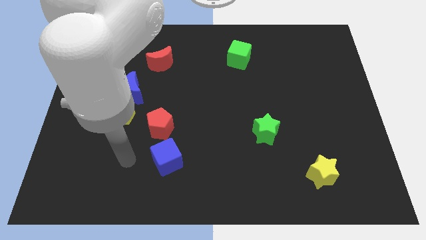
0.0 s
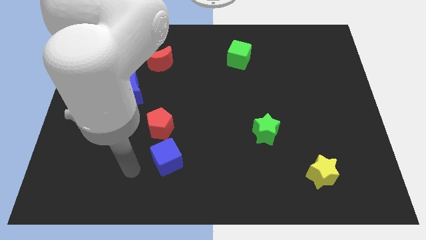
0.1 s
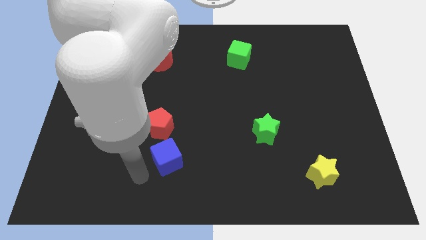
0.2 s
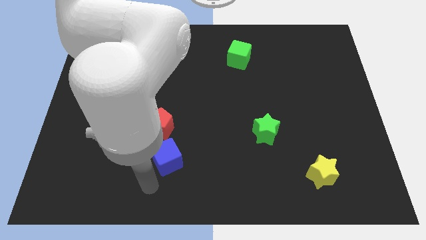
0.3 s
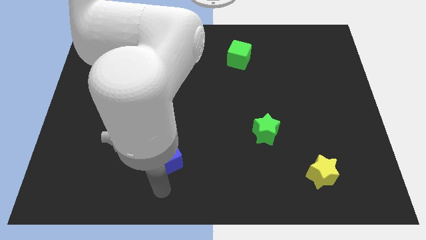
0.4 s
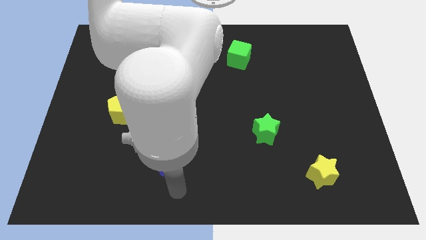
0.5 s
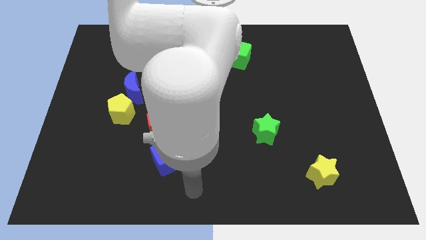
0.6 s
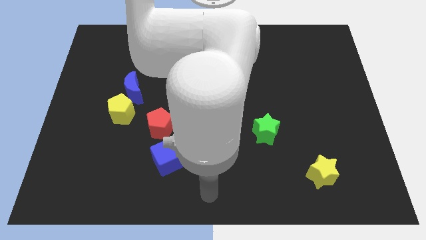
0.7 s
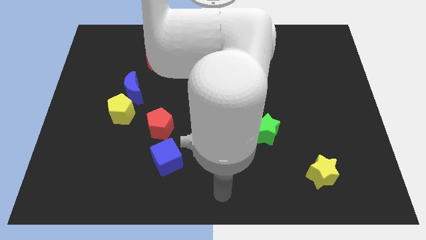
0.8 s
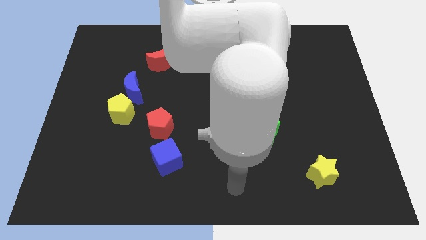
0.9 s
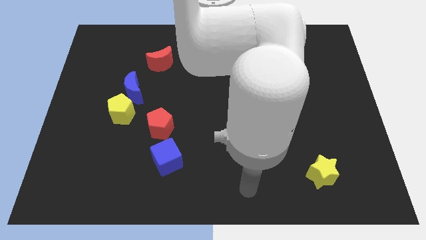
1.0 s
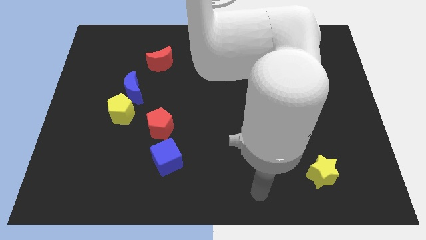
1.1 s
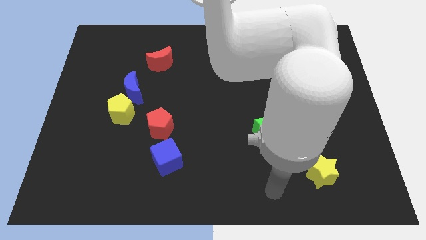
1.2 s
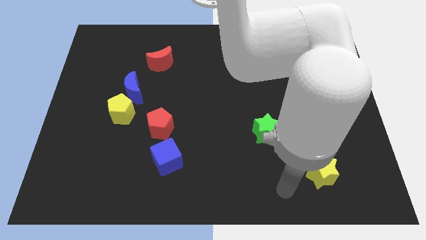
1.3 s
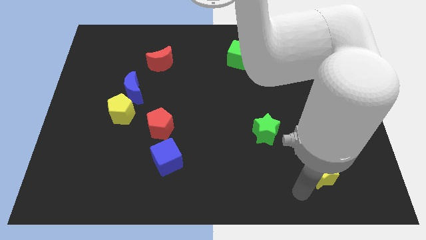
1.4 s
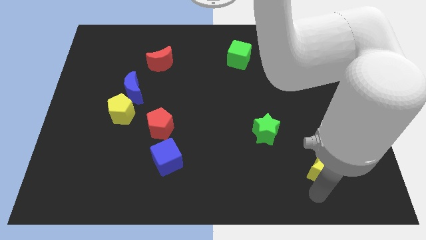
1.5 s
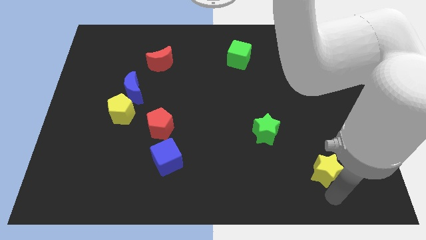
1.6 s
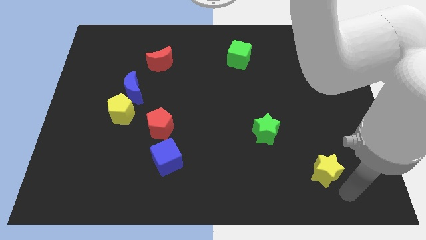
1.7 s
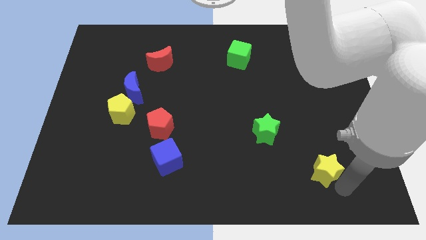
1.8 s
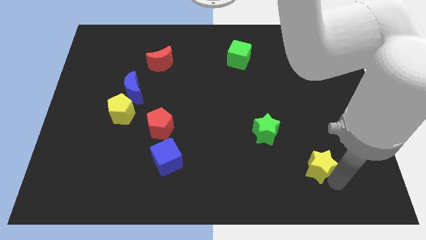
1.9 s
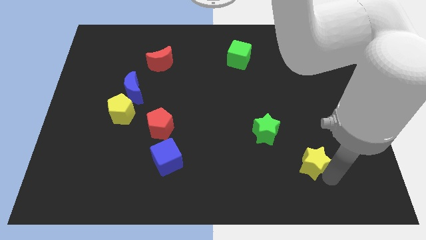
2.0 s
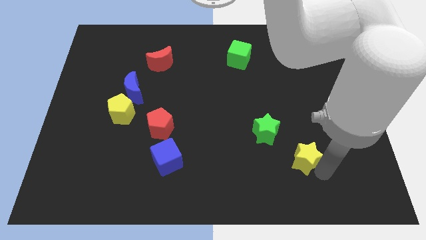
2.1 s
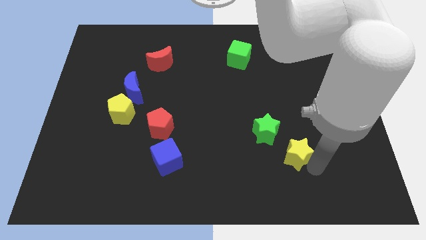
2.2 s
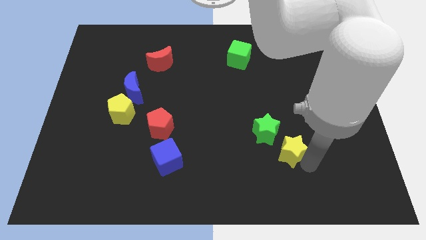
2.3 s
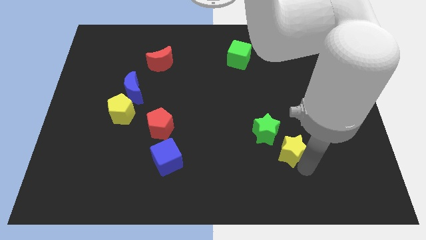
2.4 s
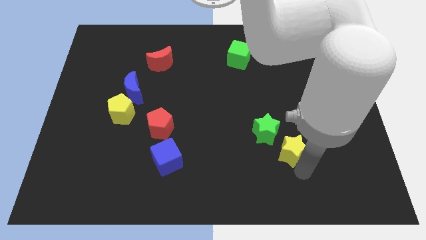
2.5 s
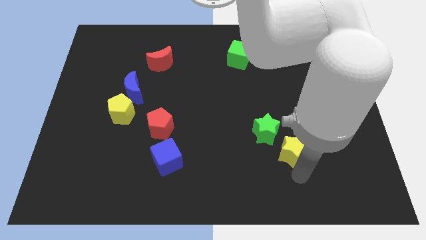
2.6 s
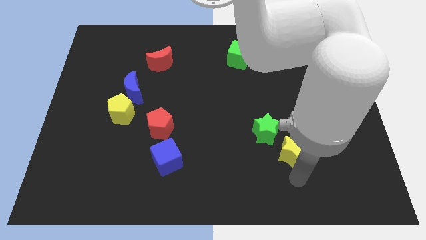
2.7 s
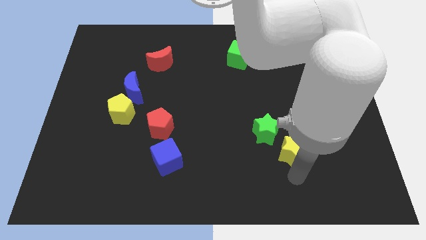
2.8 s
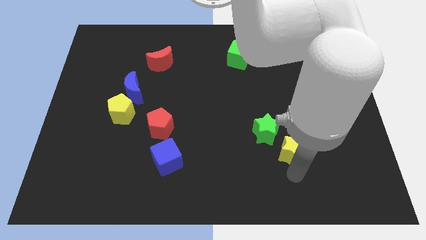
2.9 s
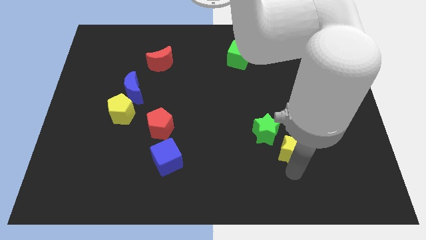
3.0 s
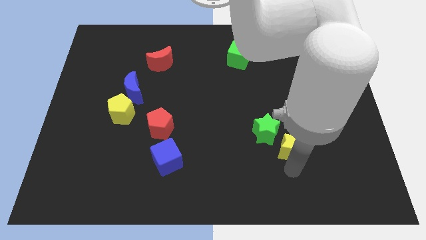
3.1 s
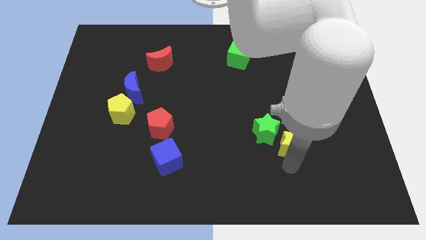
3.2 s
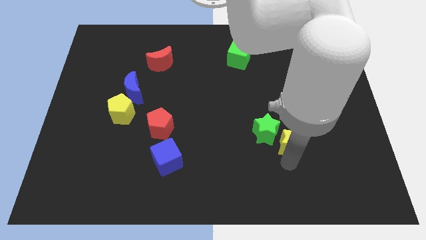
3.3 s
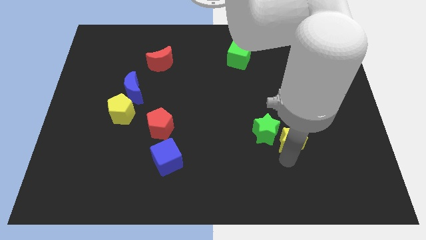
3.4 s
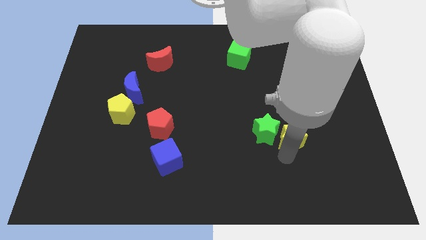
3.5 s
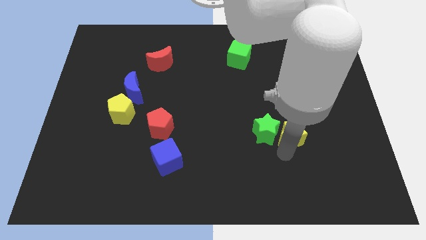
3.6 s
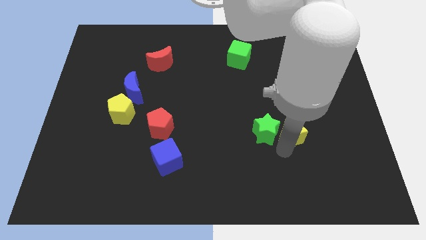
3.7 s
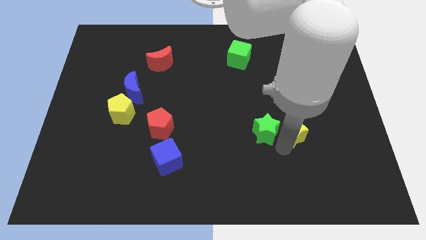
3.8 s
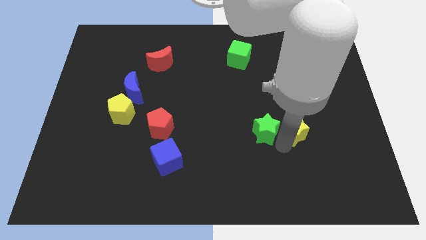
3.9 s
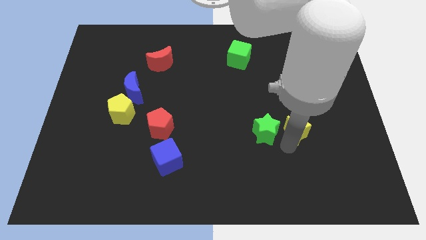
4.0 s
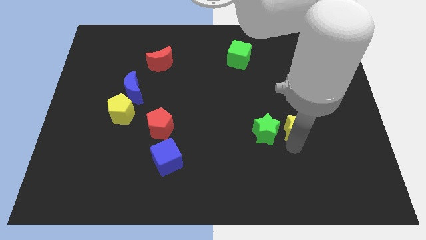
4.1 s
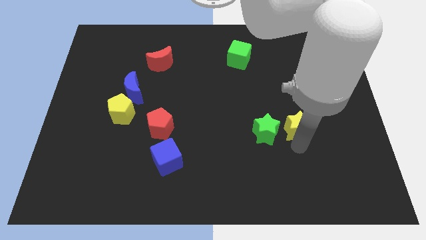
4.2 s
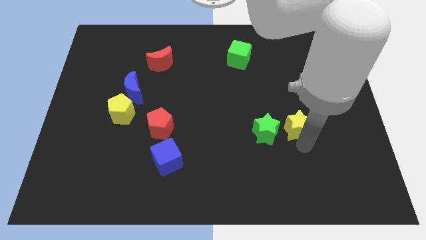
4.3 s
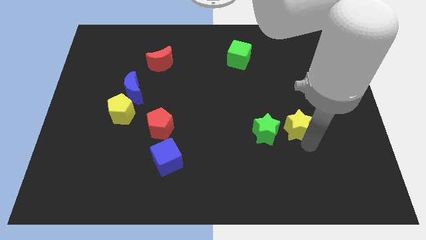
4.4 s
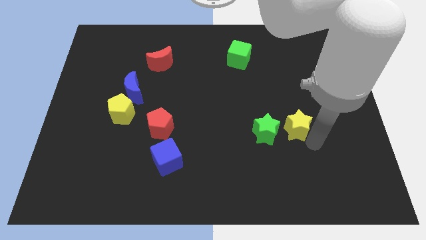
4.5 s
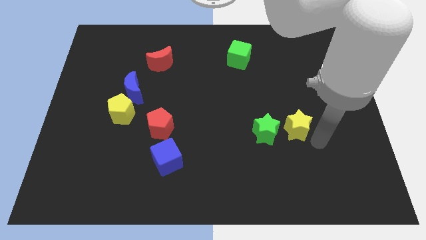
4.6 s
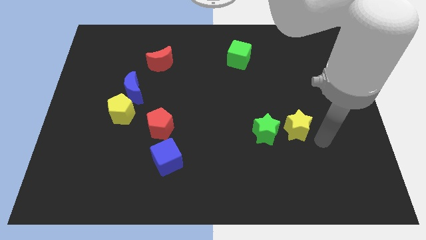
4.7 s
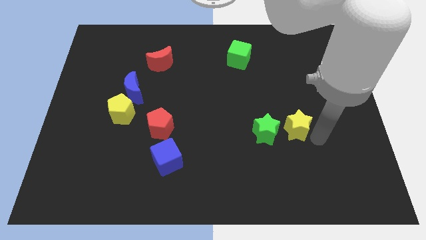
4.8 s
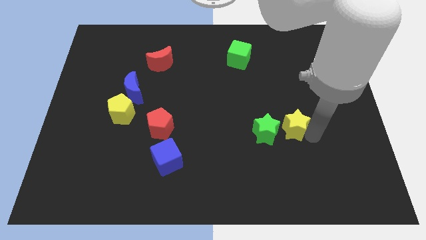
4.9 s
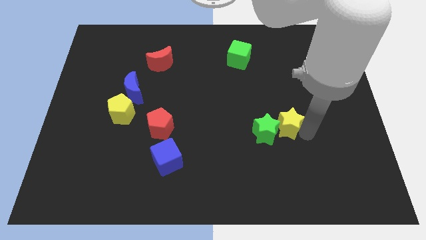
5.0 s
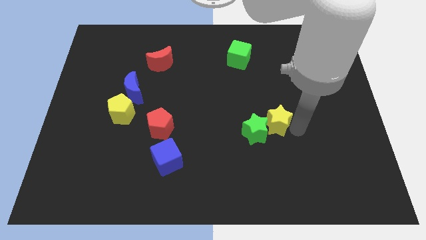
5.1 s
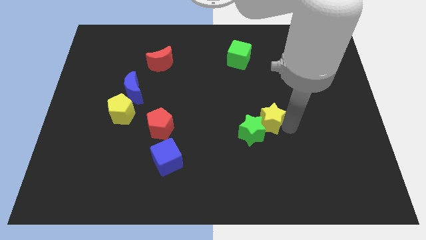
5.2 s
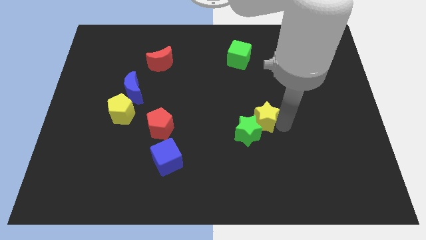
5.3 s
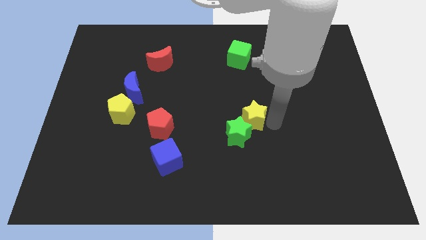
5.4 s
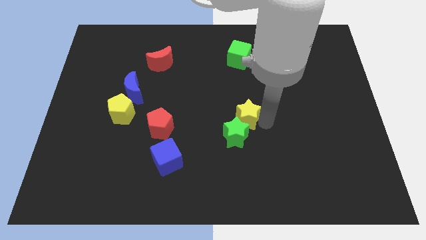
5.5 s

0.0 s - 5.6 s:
push the yellow star diagonally upwards and to the left

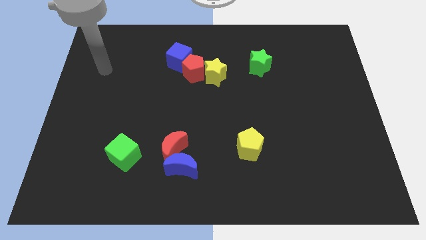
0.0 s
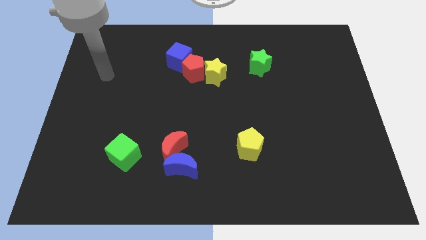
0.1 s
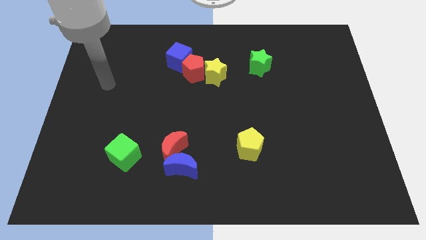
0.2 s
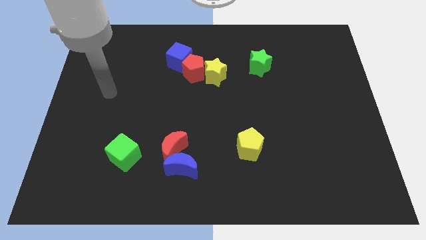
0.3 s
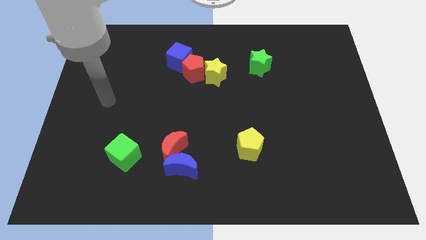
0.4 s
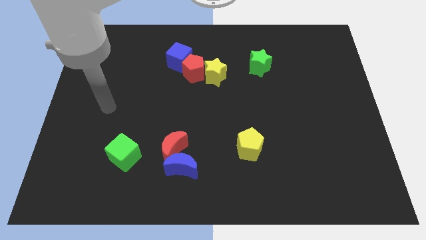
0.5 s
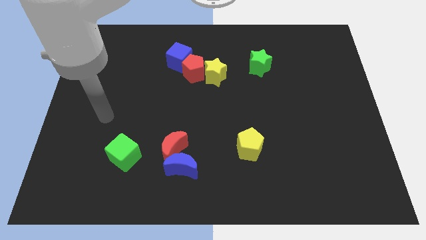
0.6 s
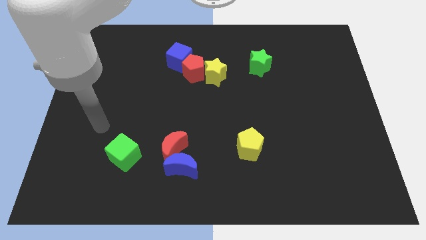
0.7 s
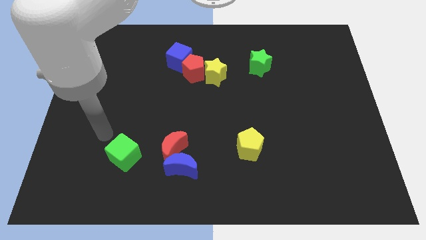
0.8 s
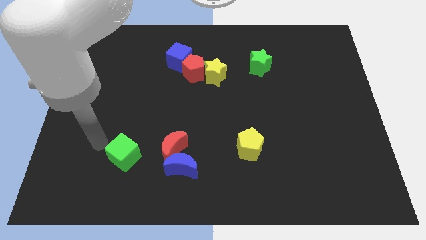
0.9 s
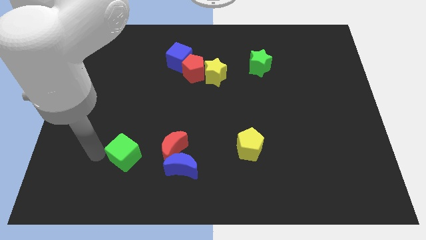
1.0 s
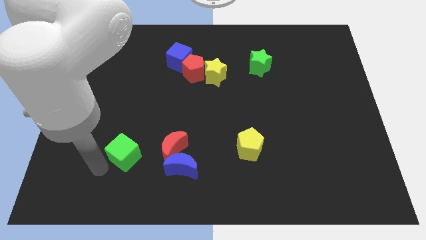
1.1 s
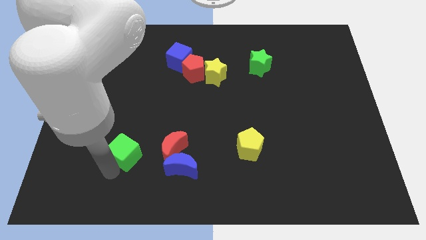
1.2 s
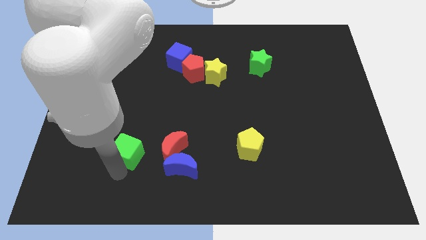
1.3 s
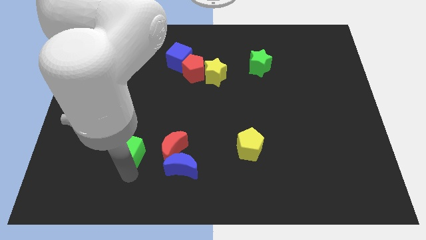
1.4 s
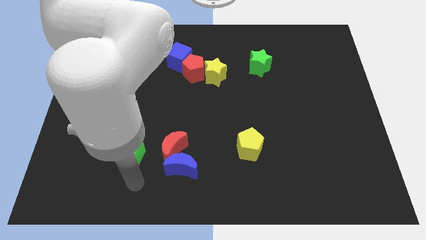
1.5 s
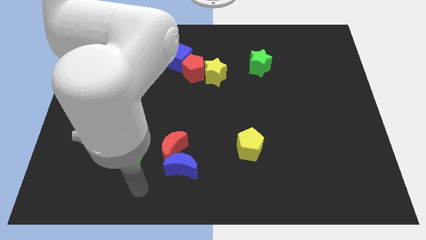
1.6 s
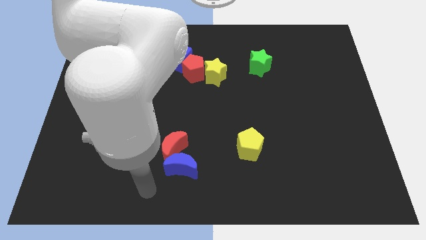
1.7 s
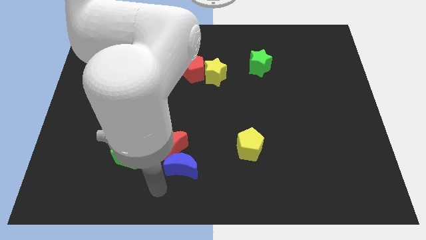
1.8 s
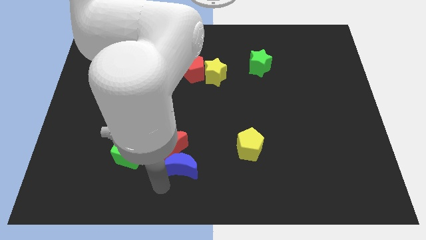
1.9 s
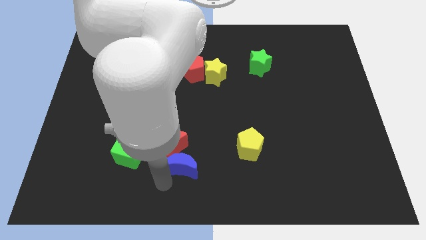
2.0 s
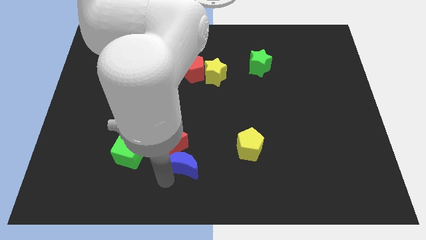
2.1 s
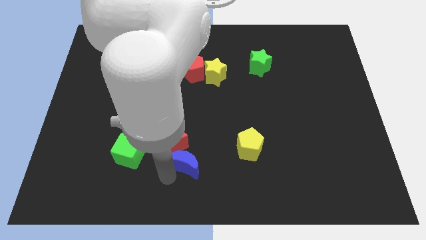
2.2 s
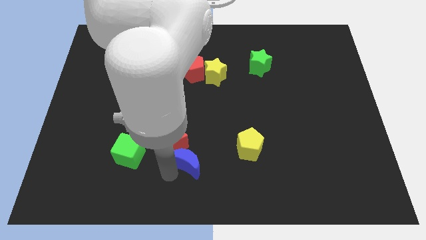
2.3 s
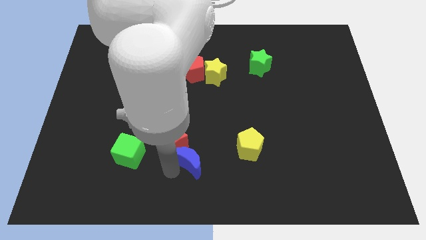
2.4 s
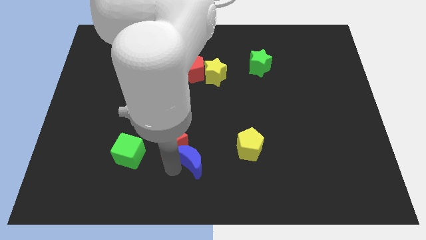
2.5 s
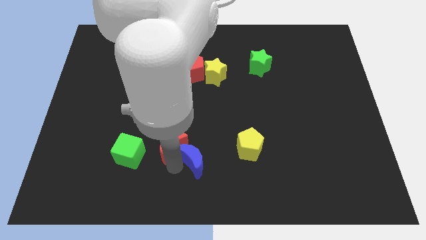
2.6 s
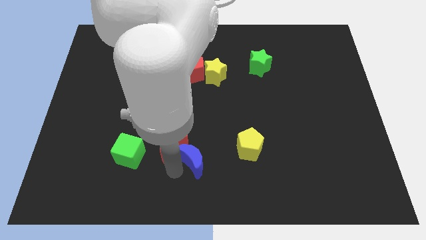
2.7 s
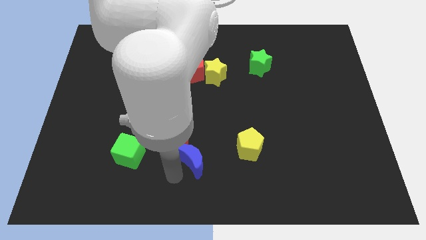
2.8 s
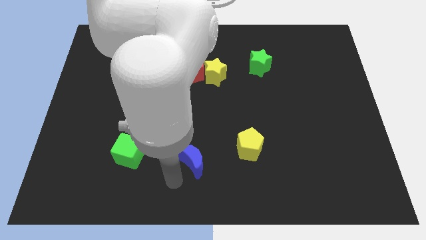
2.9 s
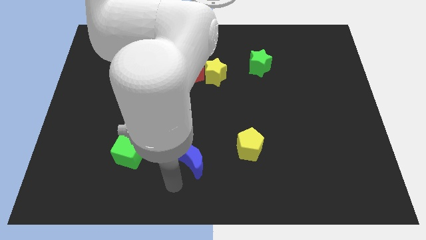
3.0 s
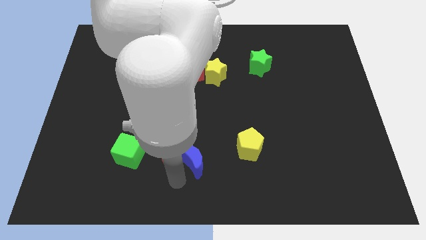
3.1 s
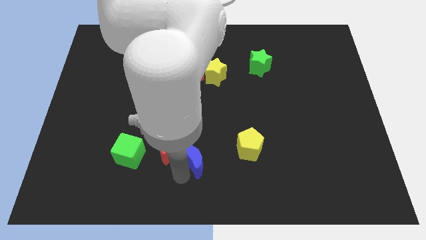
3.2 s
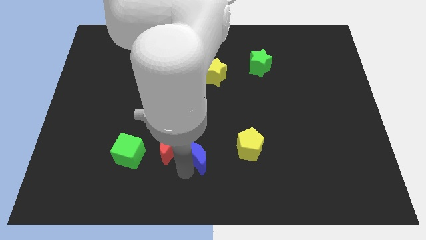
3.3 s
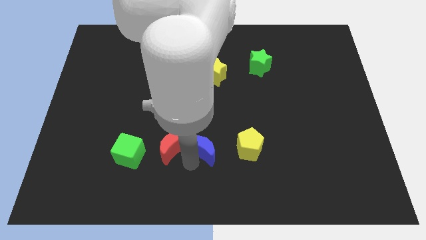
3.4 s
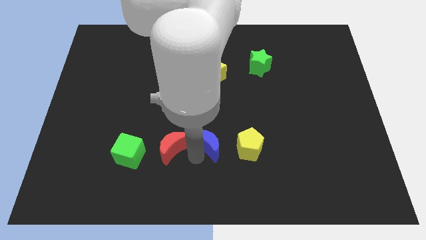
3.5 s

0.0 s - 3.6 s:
push the blue moon a little upwards and right diagonally
